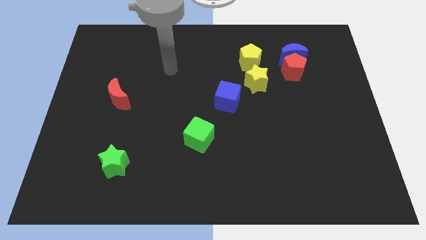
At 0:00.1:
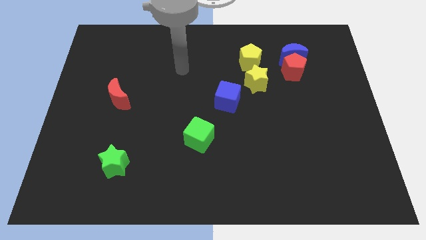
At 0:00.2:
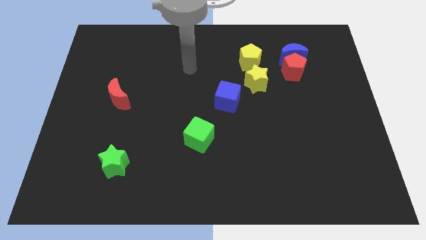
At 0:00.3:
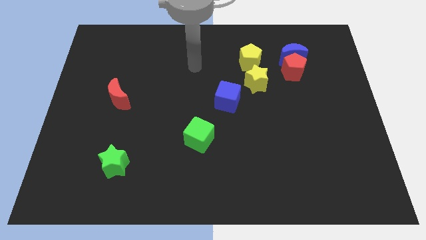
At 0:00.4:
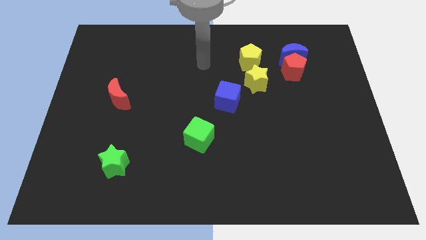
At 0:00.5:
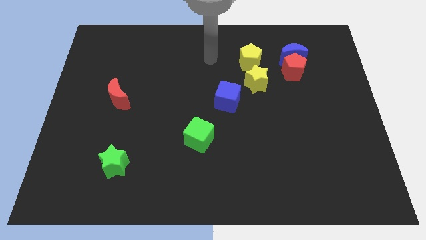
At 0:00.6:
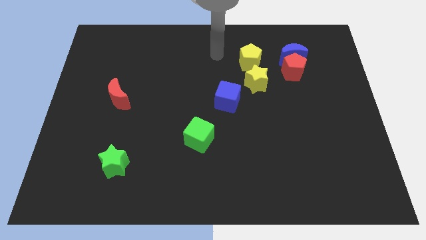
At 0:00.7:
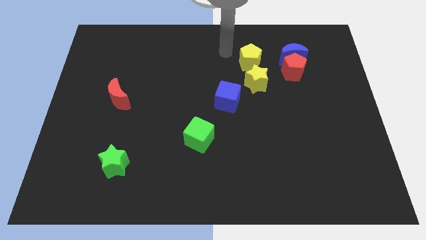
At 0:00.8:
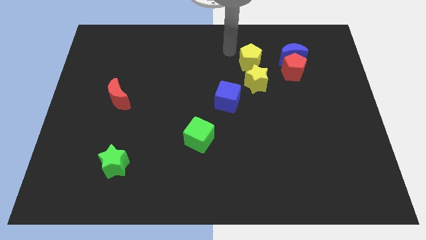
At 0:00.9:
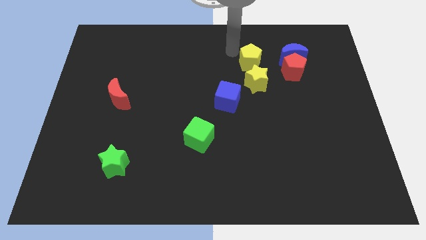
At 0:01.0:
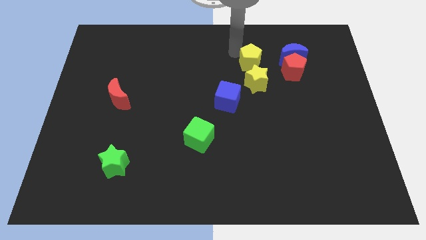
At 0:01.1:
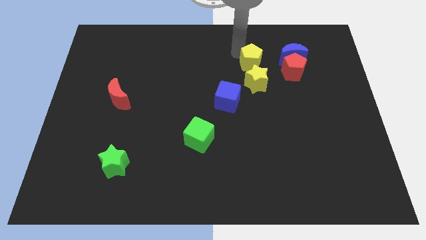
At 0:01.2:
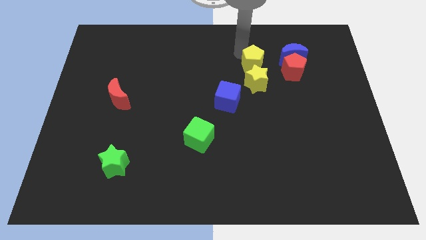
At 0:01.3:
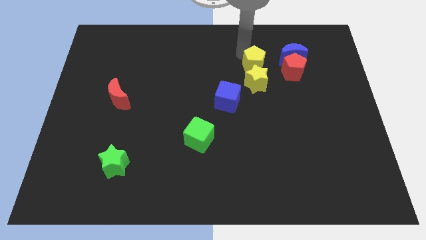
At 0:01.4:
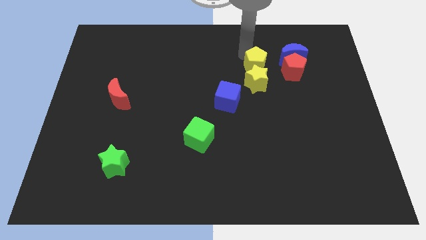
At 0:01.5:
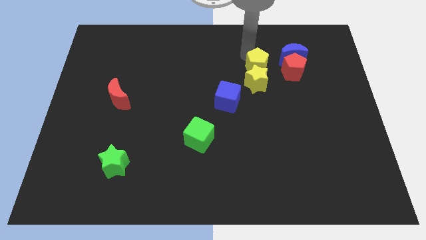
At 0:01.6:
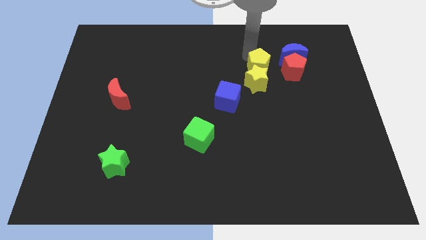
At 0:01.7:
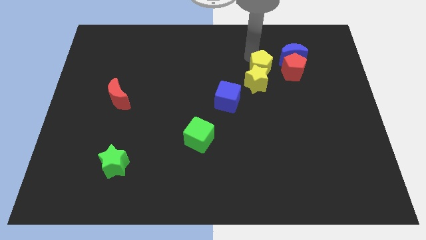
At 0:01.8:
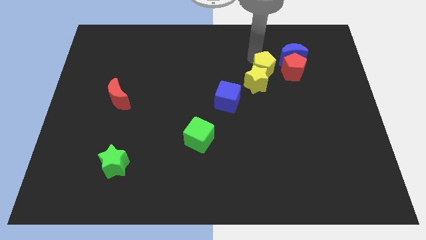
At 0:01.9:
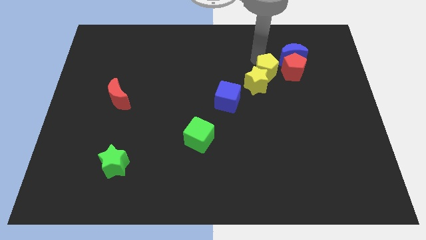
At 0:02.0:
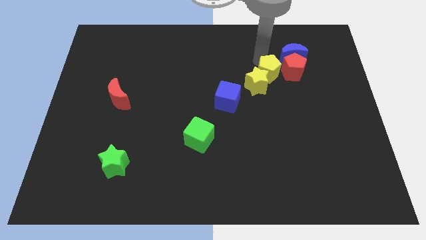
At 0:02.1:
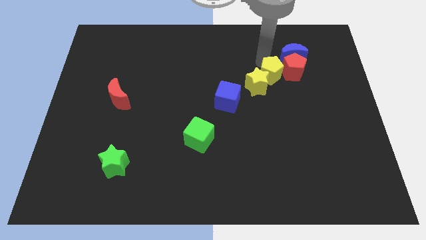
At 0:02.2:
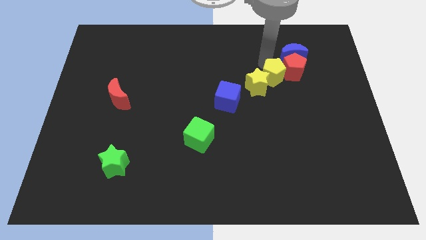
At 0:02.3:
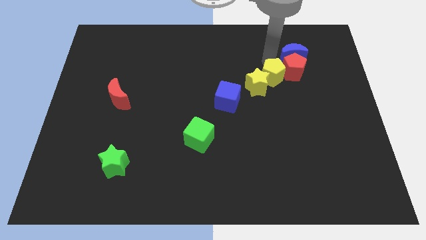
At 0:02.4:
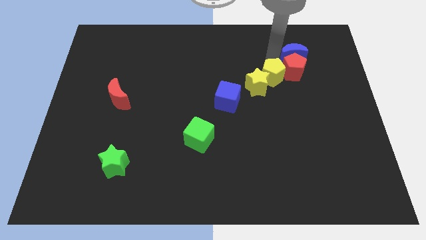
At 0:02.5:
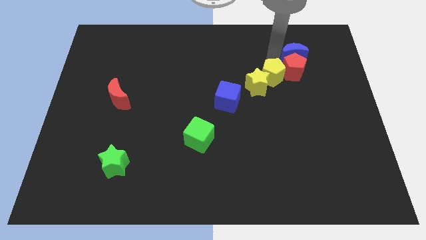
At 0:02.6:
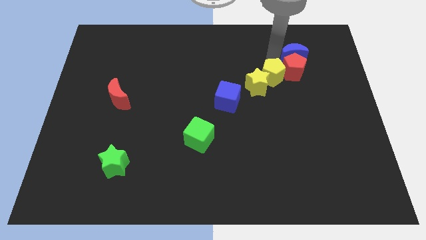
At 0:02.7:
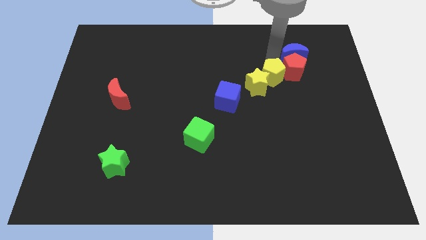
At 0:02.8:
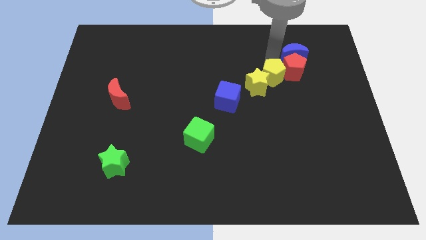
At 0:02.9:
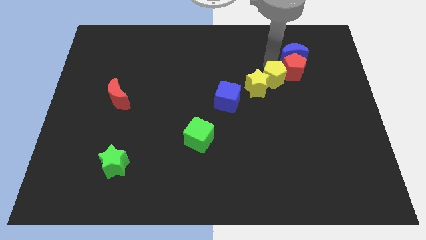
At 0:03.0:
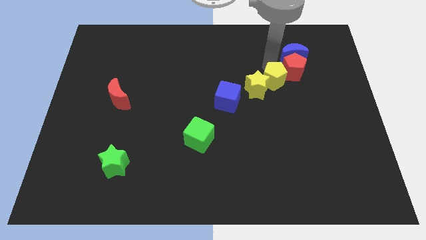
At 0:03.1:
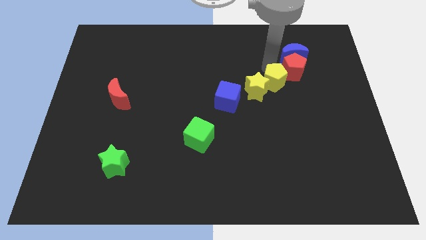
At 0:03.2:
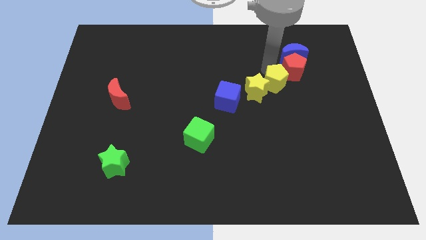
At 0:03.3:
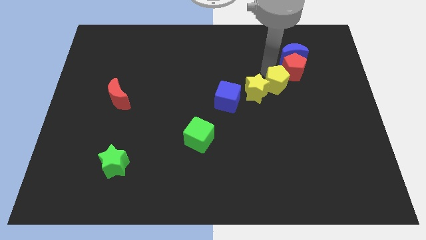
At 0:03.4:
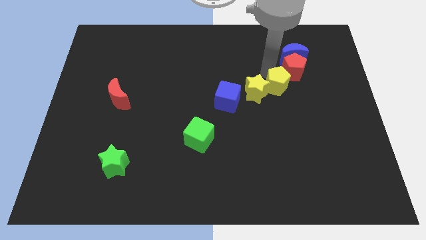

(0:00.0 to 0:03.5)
slightly move the yellow pentagon downwards

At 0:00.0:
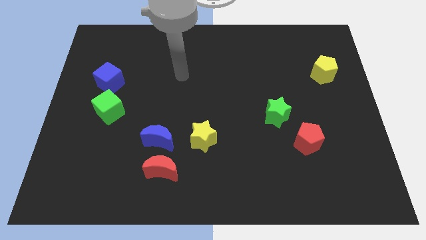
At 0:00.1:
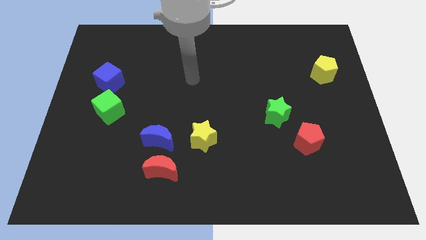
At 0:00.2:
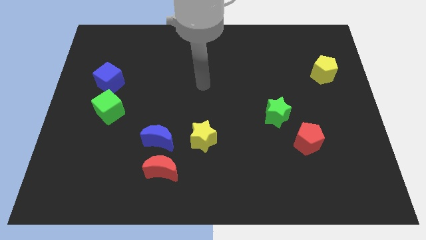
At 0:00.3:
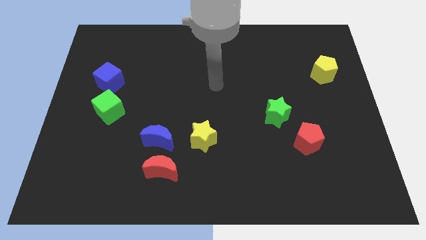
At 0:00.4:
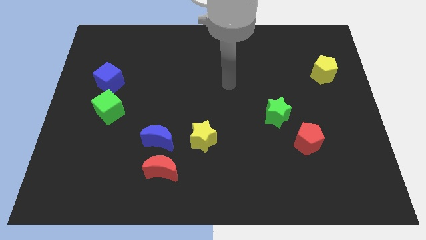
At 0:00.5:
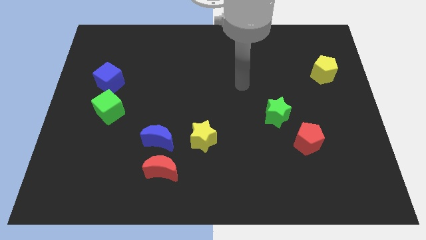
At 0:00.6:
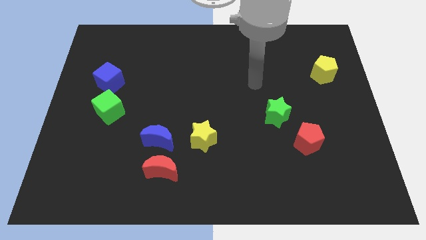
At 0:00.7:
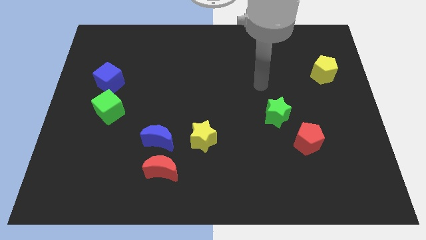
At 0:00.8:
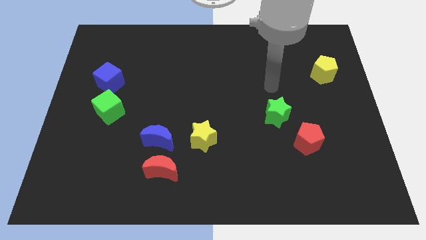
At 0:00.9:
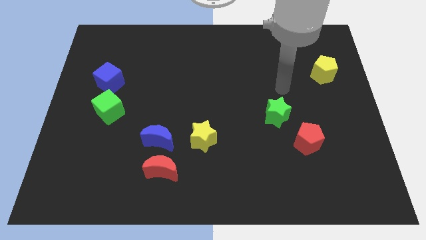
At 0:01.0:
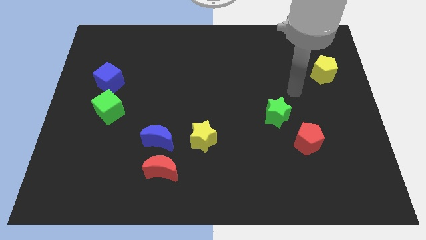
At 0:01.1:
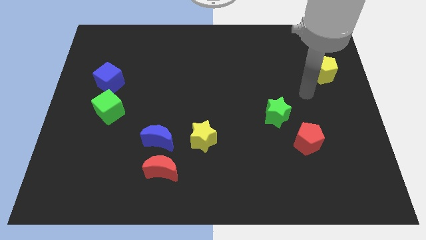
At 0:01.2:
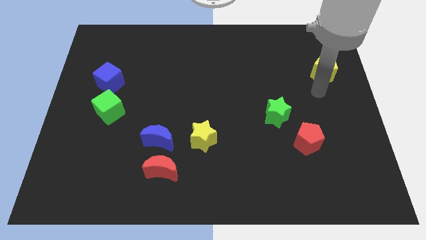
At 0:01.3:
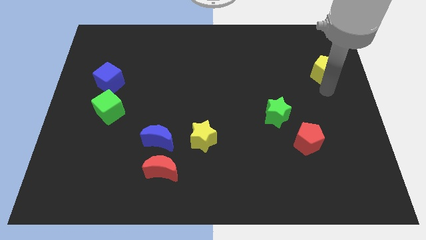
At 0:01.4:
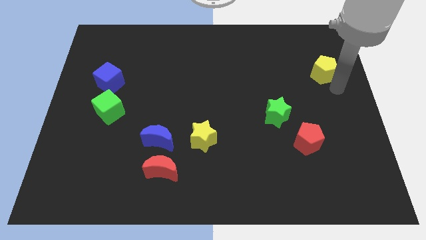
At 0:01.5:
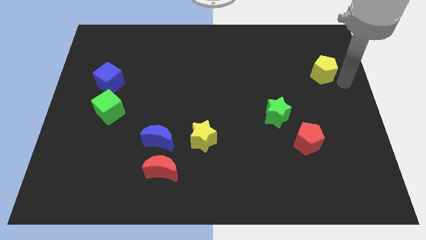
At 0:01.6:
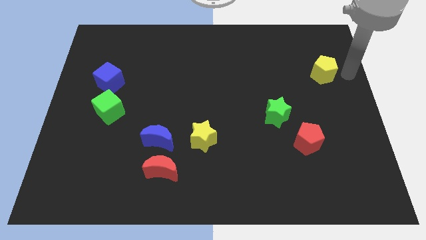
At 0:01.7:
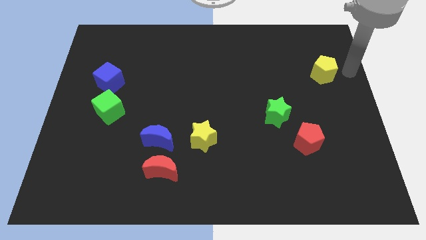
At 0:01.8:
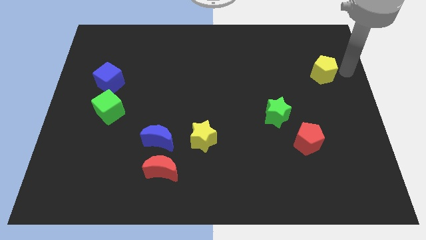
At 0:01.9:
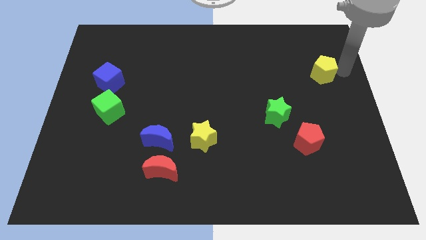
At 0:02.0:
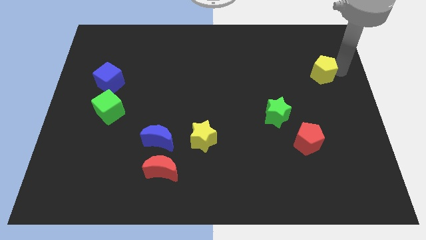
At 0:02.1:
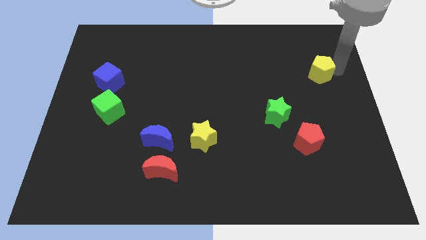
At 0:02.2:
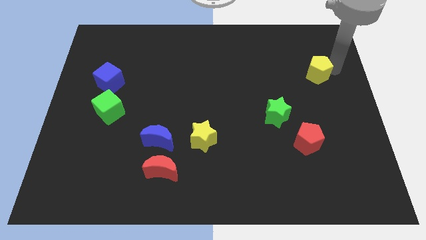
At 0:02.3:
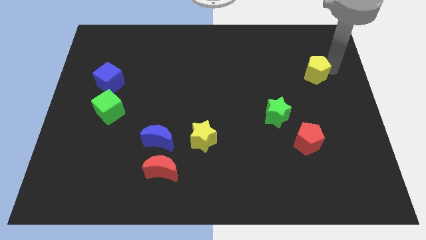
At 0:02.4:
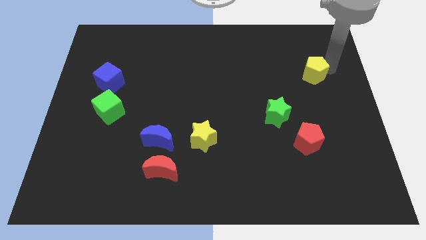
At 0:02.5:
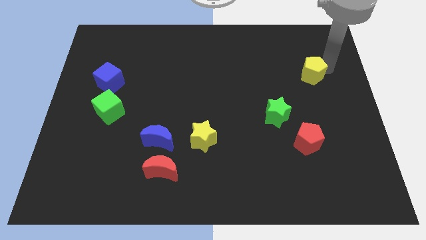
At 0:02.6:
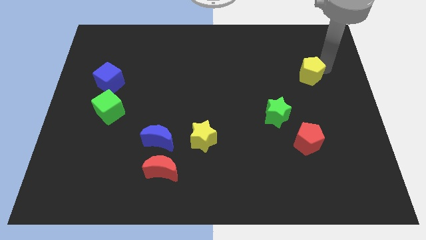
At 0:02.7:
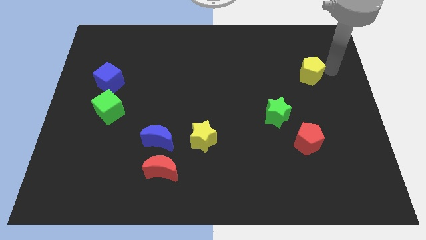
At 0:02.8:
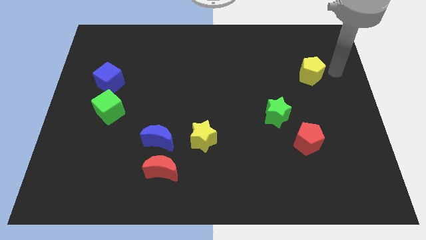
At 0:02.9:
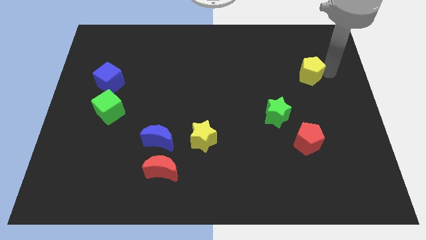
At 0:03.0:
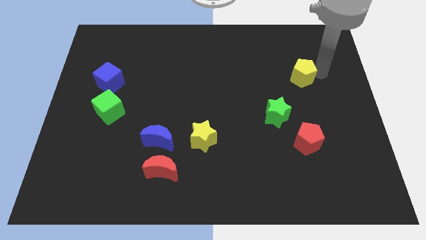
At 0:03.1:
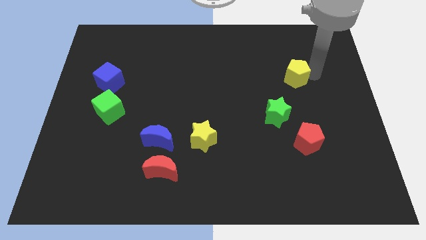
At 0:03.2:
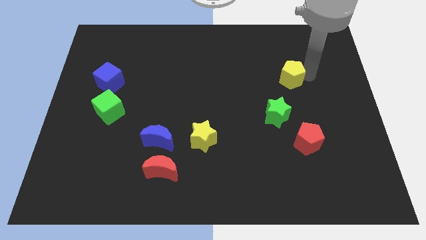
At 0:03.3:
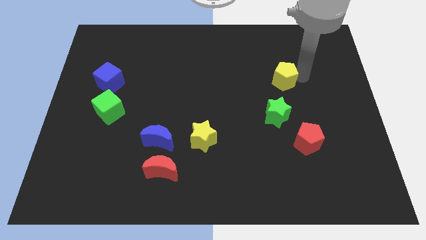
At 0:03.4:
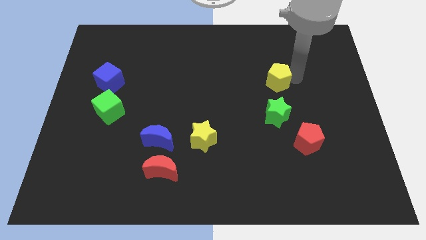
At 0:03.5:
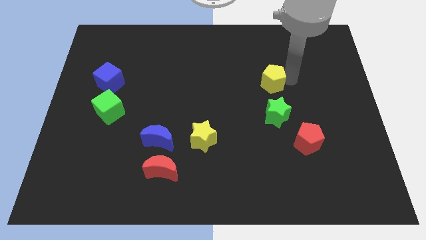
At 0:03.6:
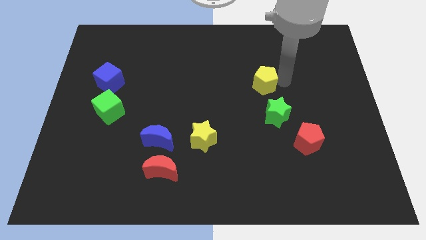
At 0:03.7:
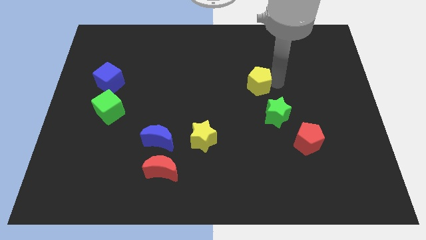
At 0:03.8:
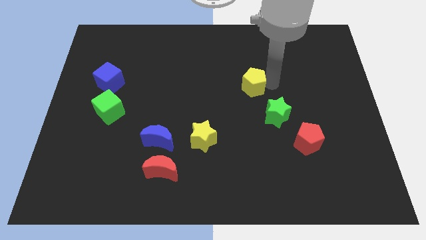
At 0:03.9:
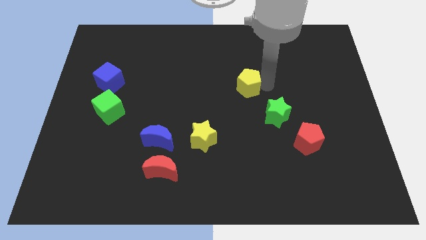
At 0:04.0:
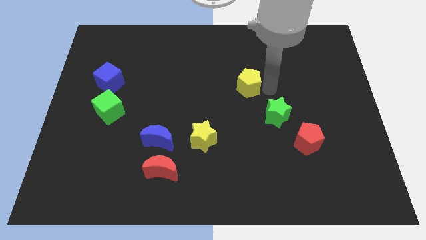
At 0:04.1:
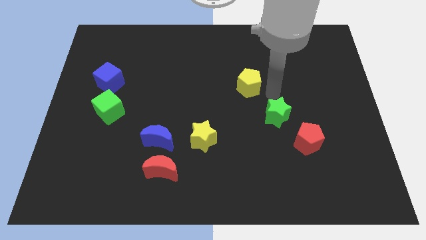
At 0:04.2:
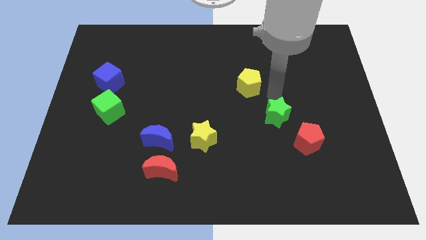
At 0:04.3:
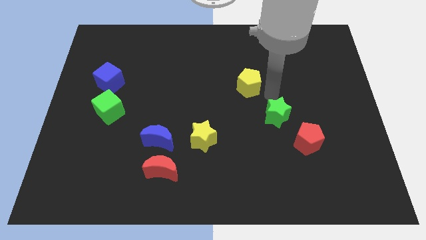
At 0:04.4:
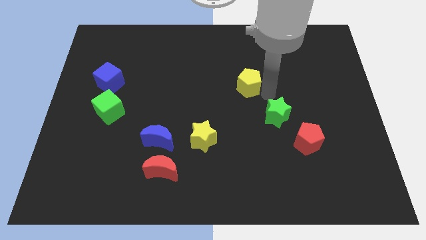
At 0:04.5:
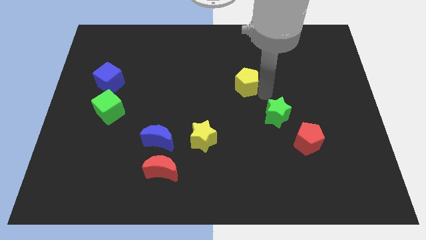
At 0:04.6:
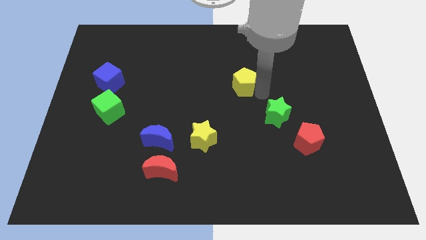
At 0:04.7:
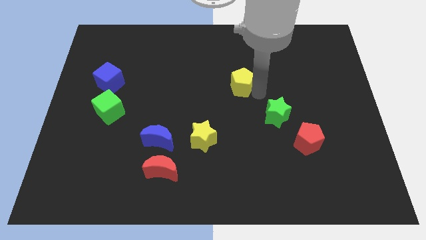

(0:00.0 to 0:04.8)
push the yellow pentagon left
